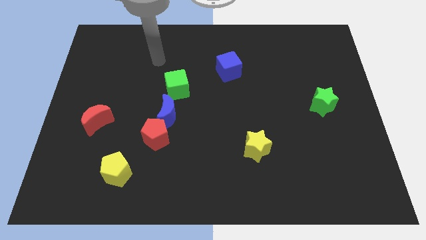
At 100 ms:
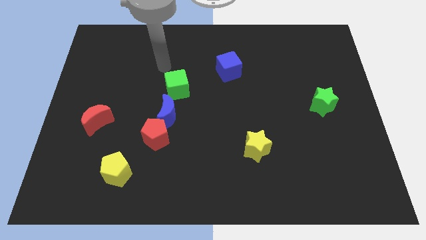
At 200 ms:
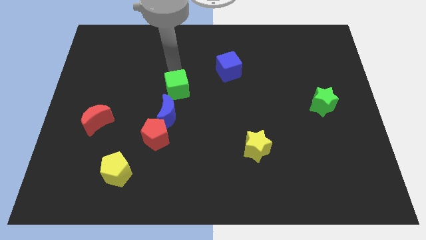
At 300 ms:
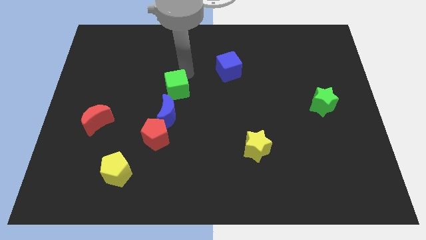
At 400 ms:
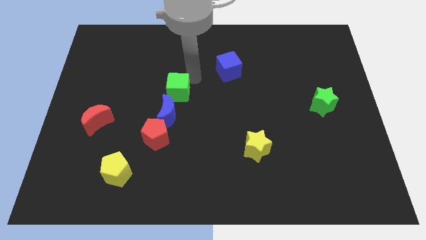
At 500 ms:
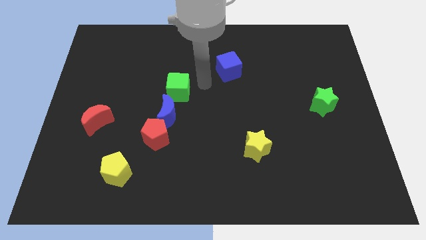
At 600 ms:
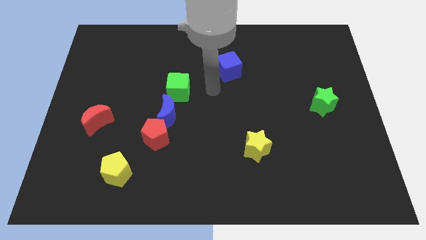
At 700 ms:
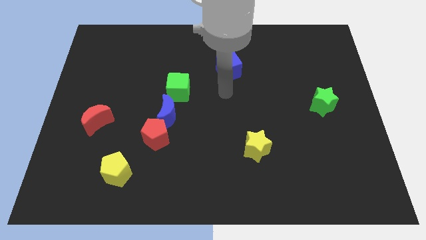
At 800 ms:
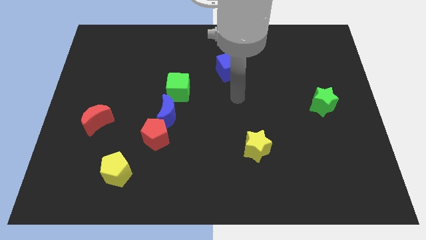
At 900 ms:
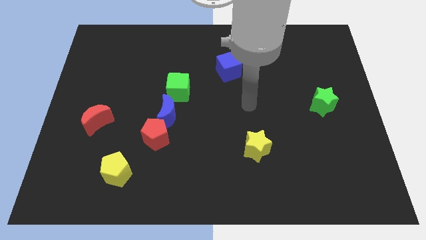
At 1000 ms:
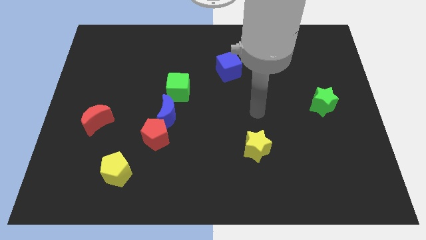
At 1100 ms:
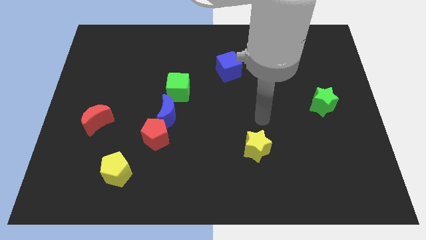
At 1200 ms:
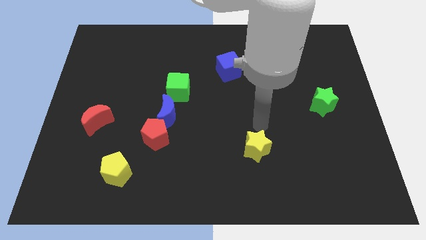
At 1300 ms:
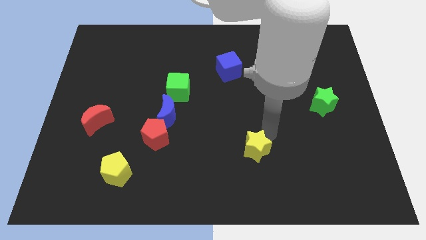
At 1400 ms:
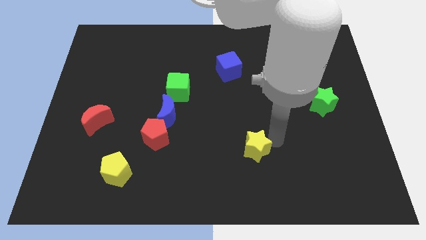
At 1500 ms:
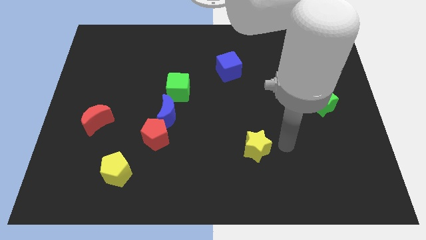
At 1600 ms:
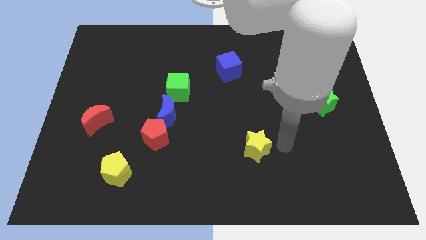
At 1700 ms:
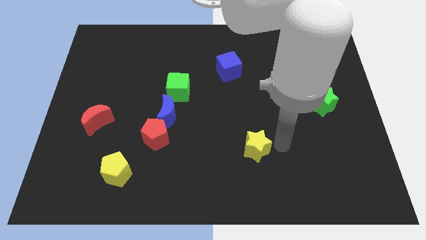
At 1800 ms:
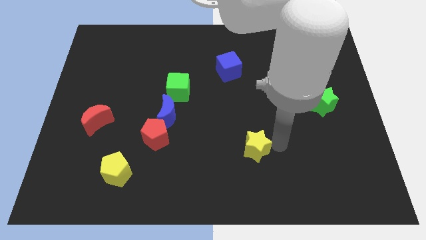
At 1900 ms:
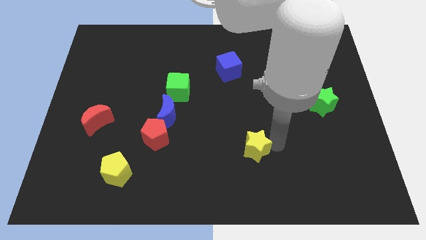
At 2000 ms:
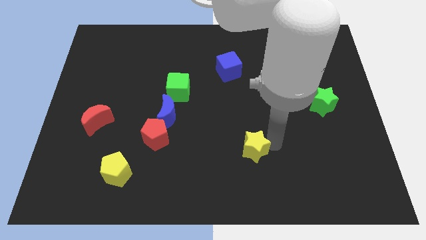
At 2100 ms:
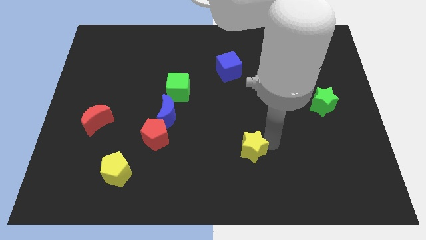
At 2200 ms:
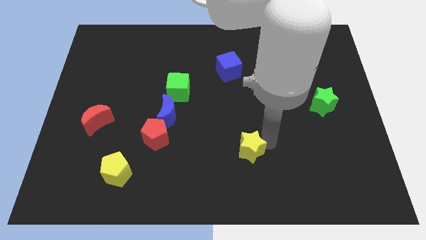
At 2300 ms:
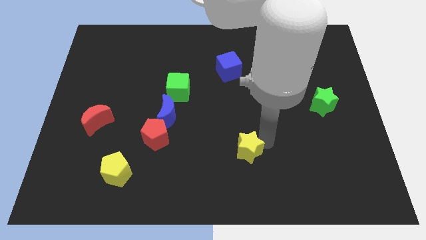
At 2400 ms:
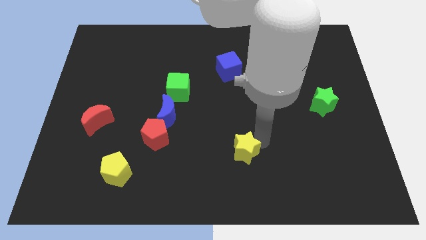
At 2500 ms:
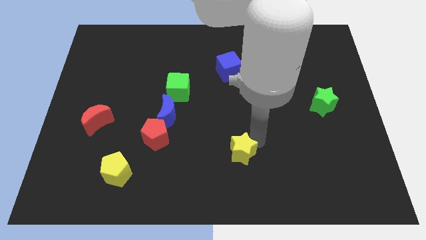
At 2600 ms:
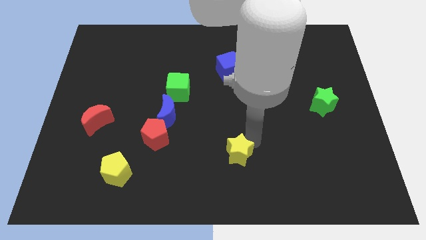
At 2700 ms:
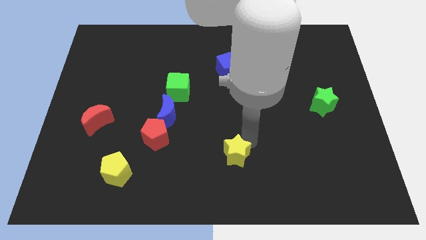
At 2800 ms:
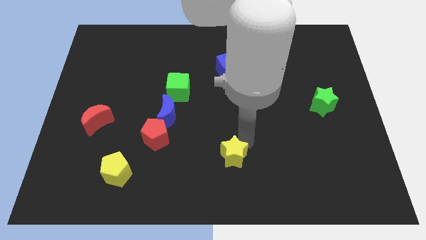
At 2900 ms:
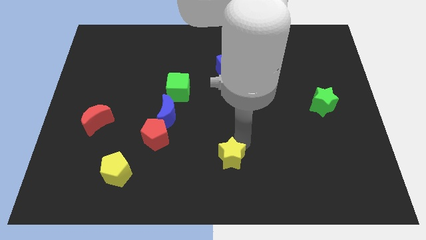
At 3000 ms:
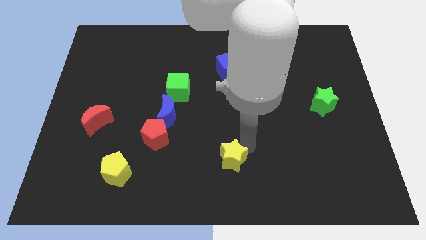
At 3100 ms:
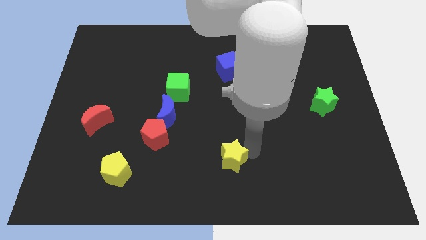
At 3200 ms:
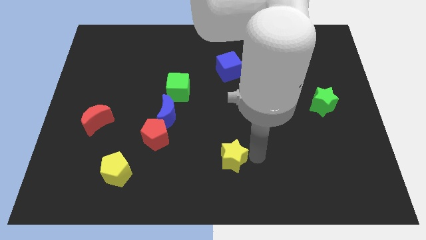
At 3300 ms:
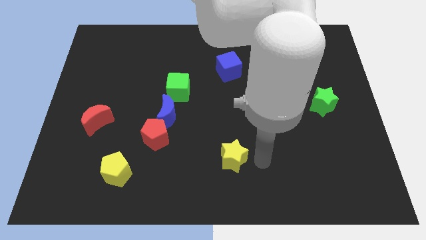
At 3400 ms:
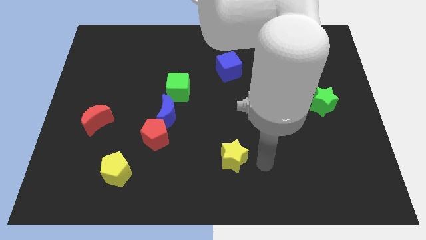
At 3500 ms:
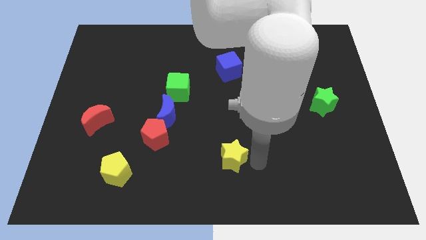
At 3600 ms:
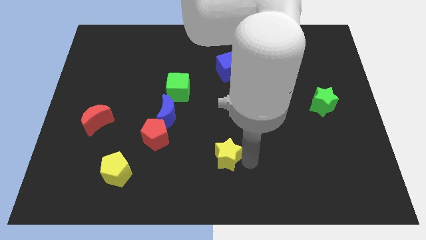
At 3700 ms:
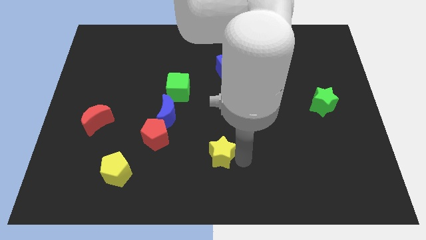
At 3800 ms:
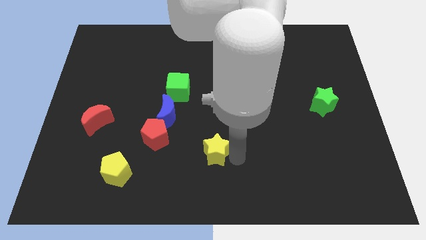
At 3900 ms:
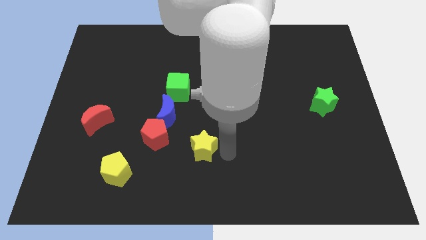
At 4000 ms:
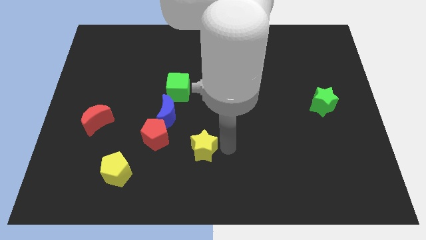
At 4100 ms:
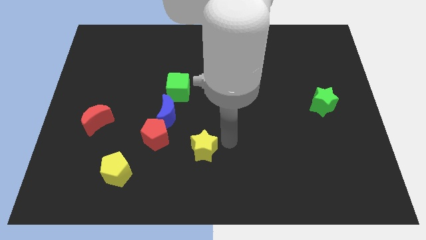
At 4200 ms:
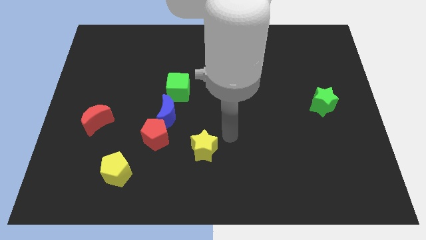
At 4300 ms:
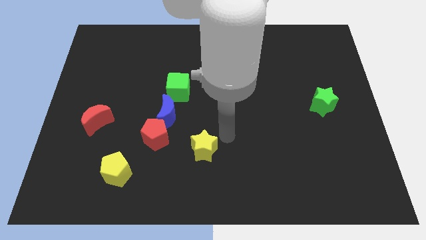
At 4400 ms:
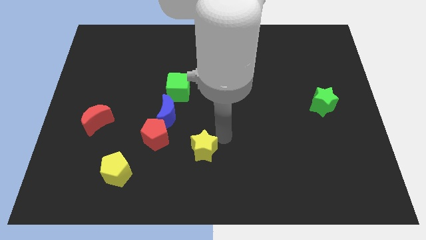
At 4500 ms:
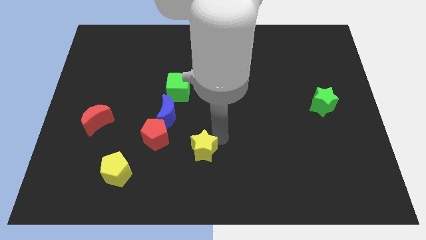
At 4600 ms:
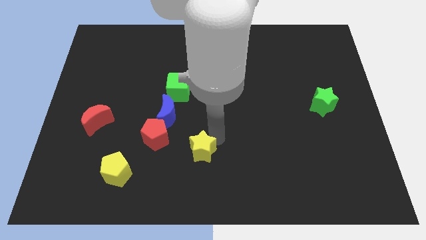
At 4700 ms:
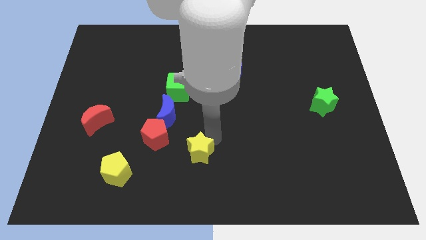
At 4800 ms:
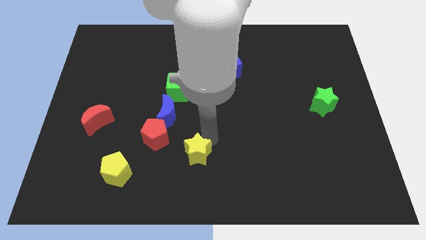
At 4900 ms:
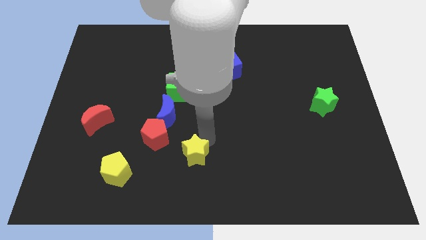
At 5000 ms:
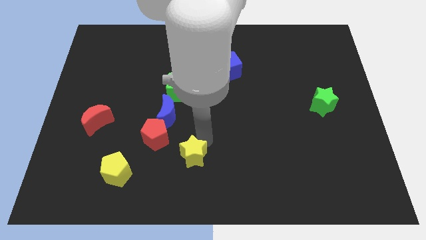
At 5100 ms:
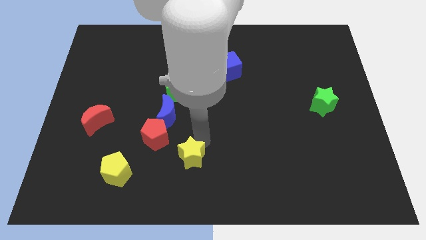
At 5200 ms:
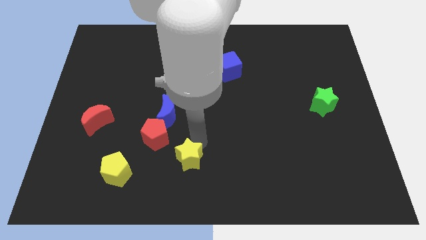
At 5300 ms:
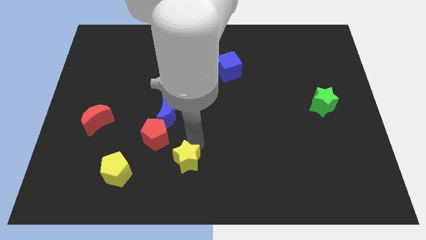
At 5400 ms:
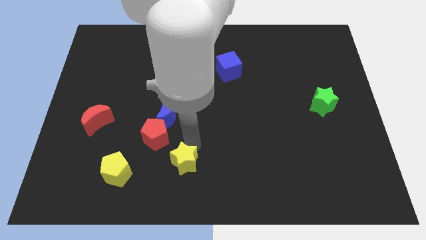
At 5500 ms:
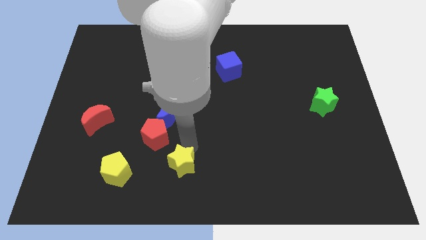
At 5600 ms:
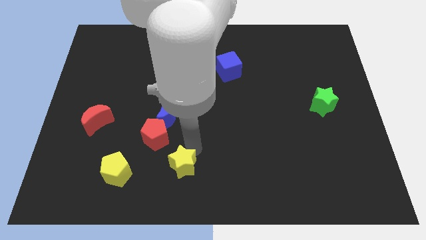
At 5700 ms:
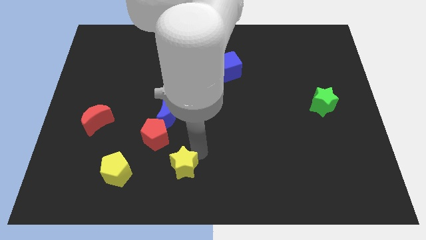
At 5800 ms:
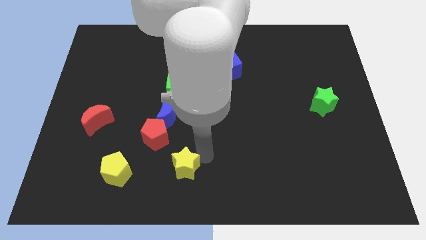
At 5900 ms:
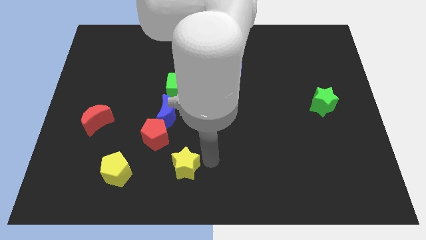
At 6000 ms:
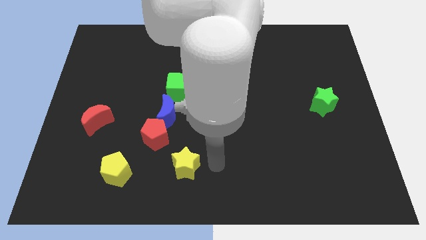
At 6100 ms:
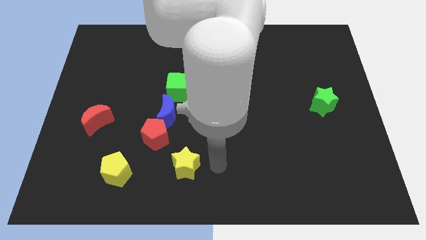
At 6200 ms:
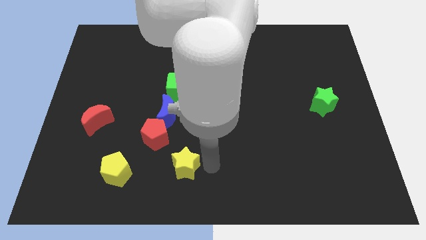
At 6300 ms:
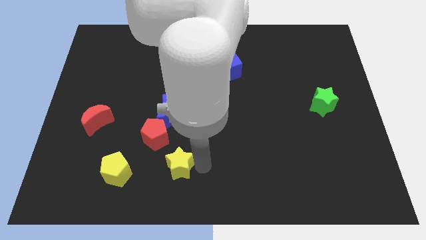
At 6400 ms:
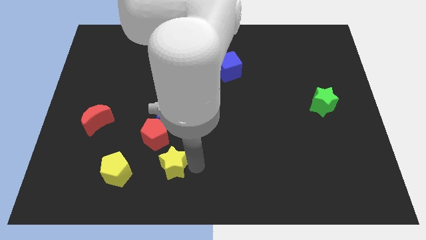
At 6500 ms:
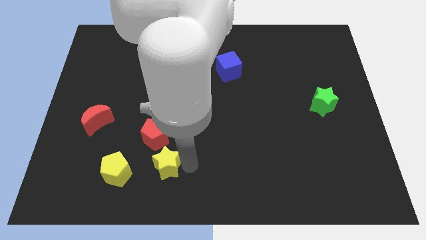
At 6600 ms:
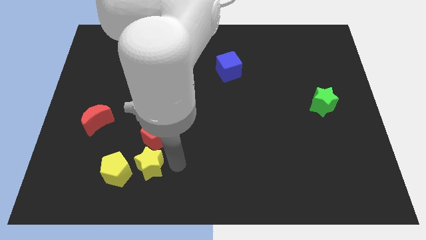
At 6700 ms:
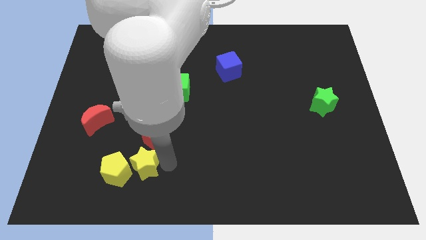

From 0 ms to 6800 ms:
push the yellow star next to the yellow pentagon
